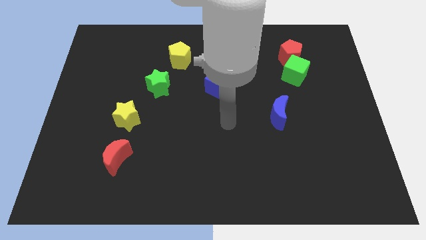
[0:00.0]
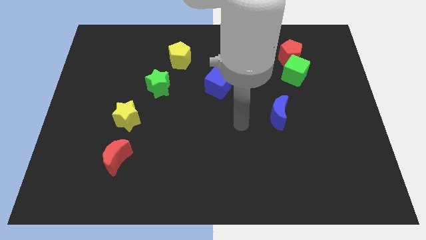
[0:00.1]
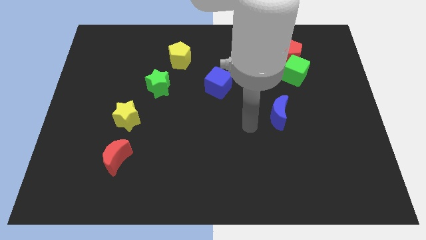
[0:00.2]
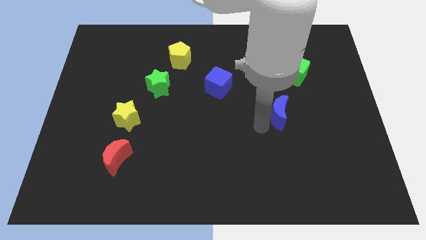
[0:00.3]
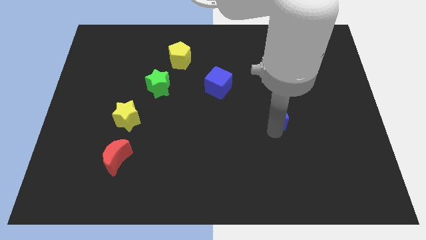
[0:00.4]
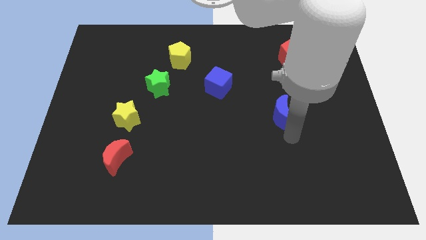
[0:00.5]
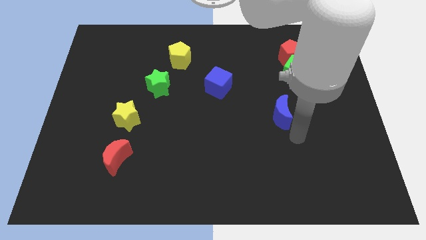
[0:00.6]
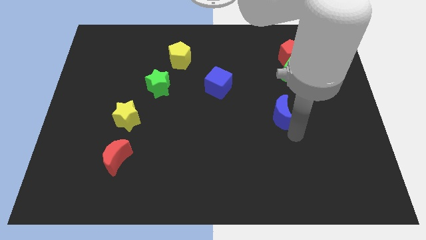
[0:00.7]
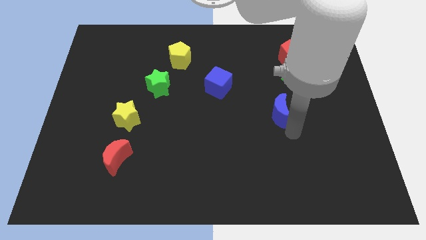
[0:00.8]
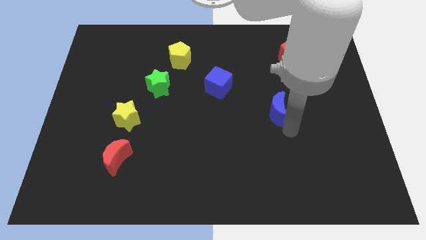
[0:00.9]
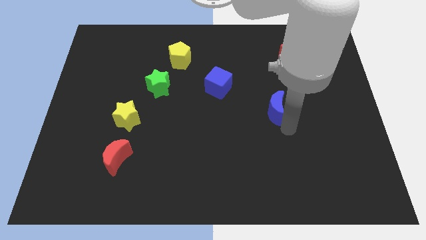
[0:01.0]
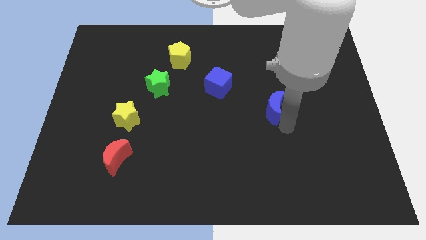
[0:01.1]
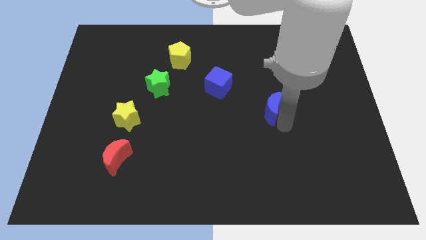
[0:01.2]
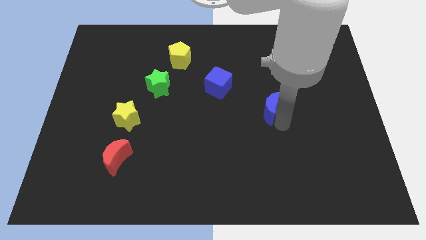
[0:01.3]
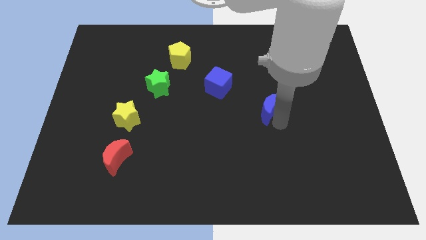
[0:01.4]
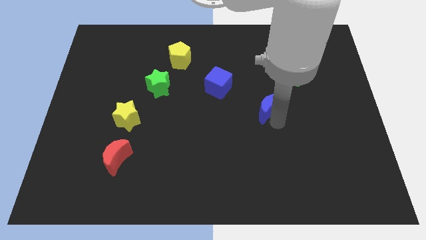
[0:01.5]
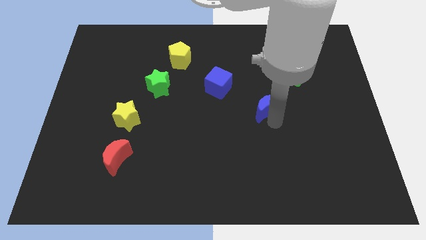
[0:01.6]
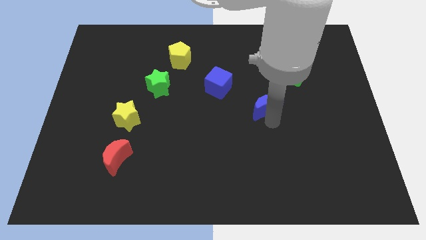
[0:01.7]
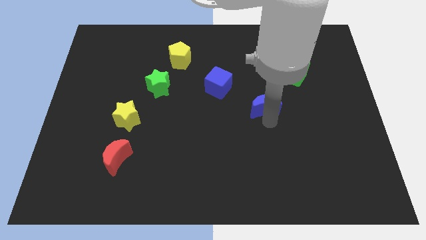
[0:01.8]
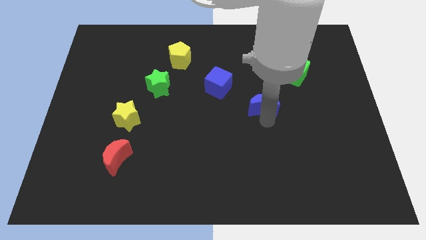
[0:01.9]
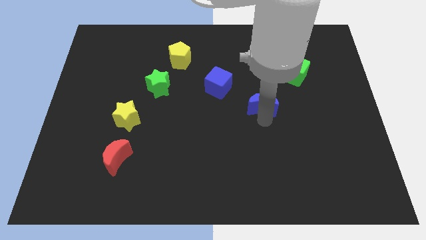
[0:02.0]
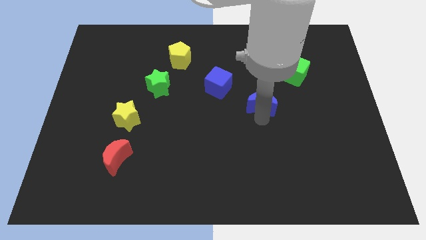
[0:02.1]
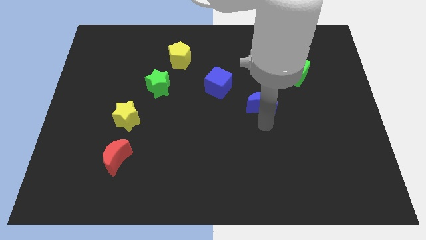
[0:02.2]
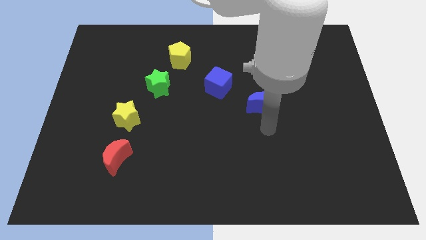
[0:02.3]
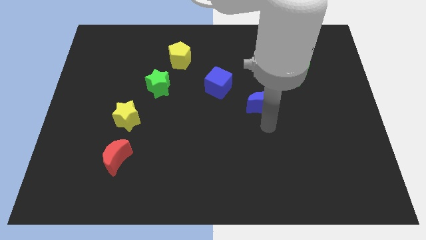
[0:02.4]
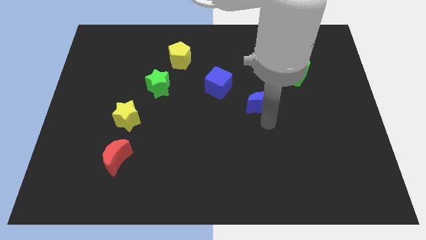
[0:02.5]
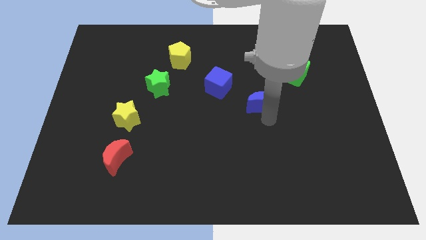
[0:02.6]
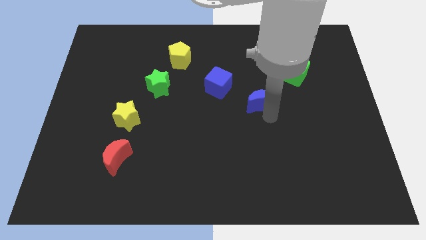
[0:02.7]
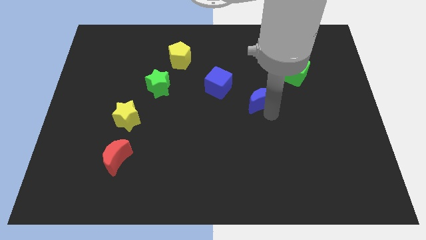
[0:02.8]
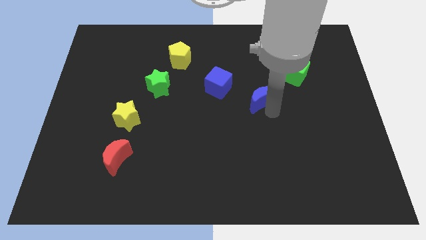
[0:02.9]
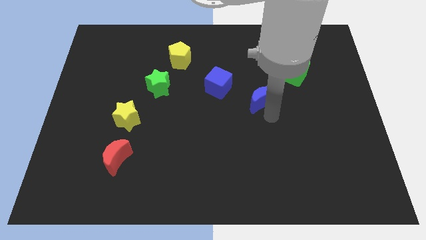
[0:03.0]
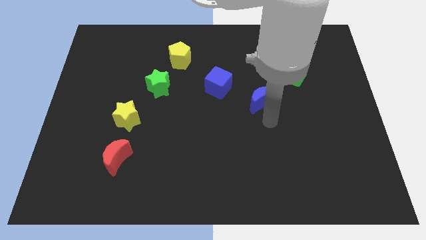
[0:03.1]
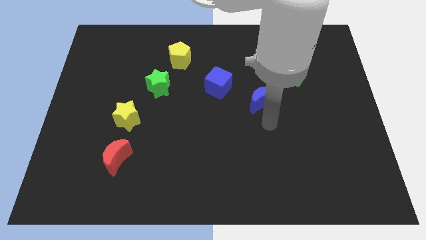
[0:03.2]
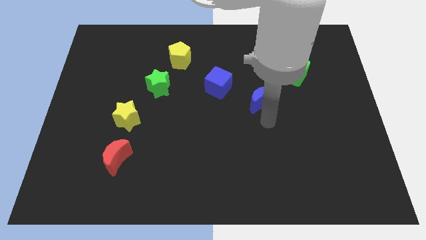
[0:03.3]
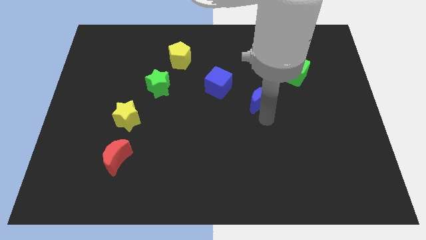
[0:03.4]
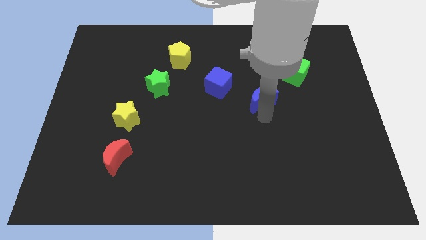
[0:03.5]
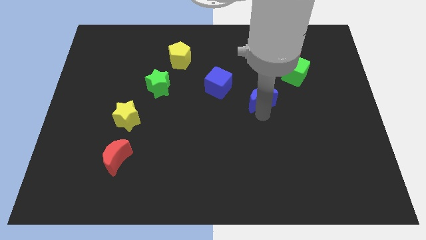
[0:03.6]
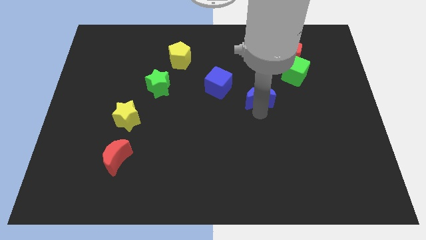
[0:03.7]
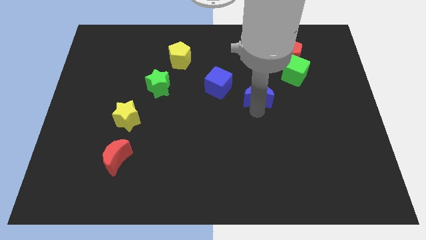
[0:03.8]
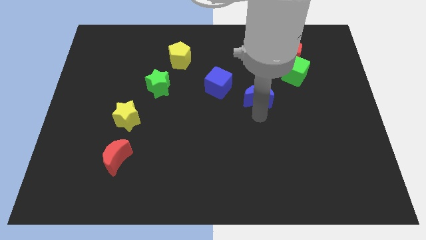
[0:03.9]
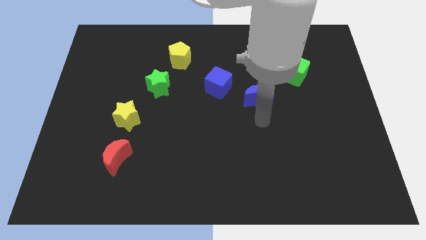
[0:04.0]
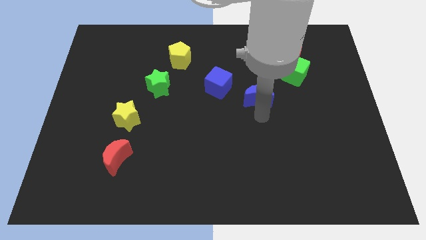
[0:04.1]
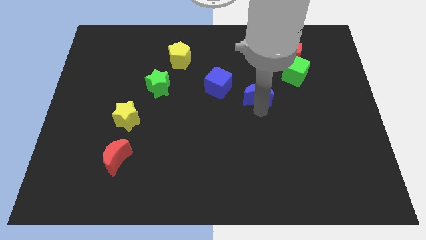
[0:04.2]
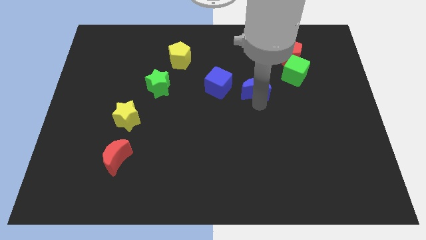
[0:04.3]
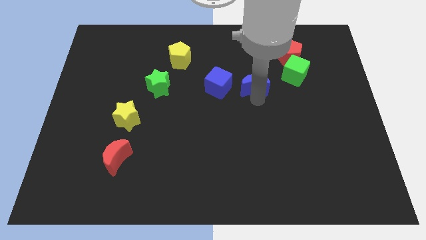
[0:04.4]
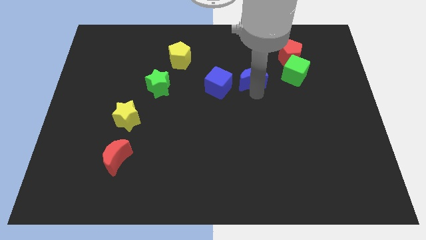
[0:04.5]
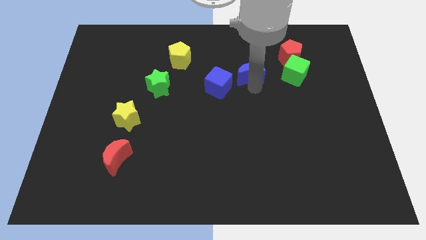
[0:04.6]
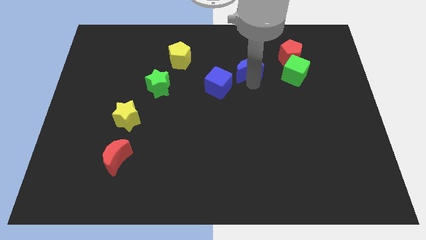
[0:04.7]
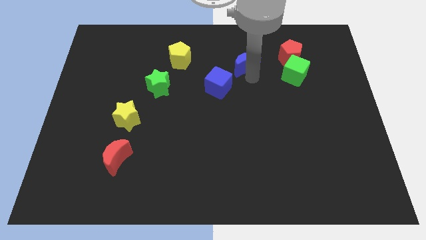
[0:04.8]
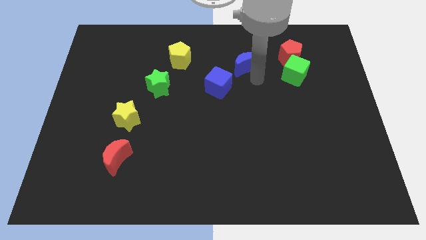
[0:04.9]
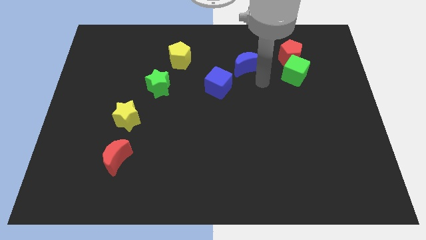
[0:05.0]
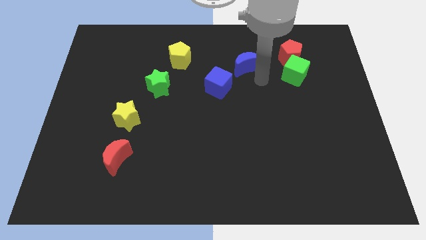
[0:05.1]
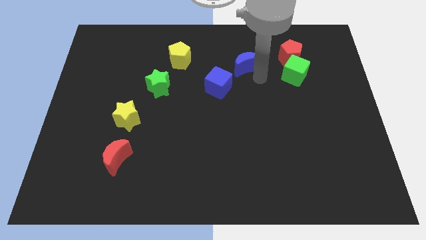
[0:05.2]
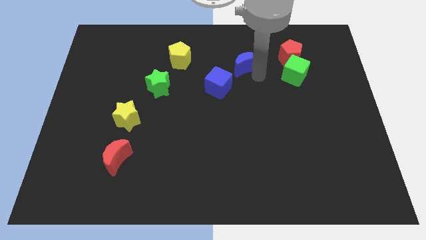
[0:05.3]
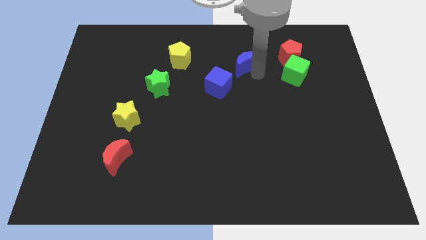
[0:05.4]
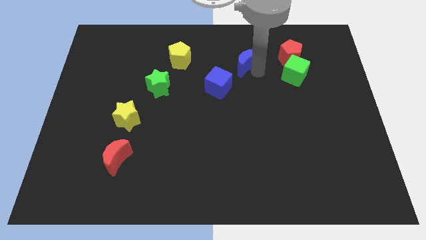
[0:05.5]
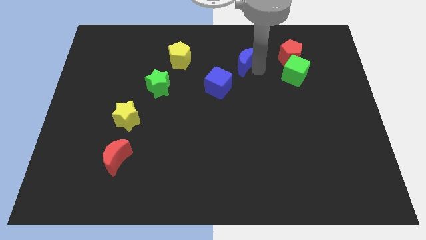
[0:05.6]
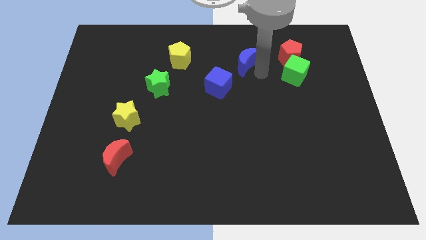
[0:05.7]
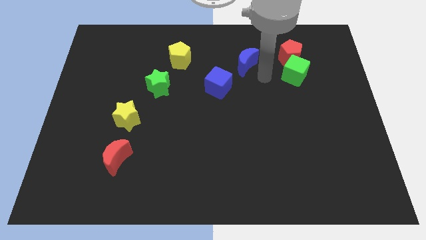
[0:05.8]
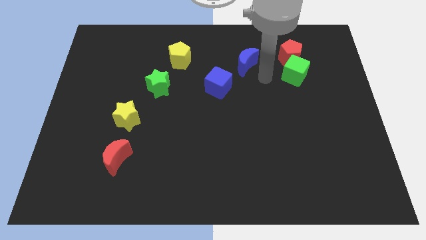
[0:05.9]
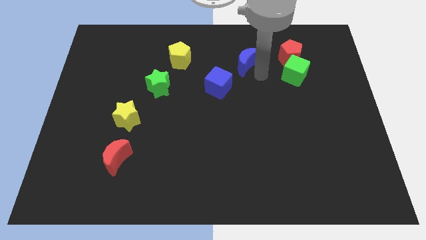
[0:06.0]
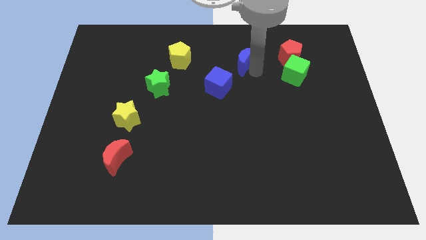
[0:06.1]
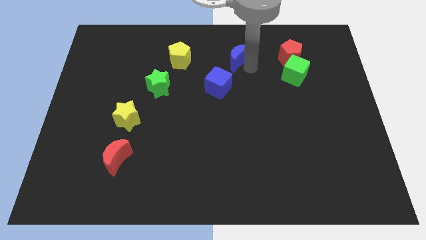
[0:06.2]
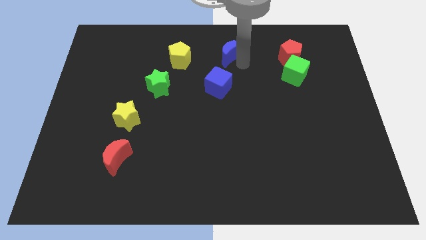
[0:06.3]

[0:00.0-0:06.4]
slide the blue moon to the top
